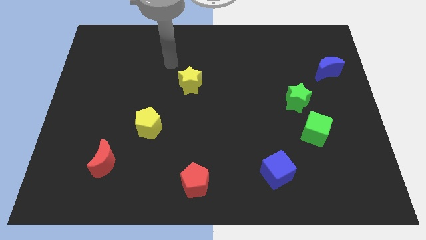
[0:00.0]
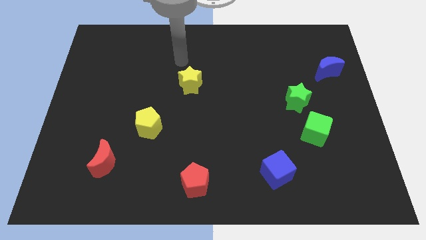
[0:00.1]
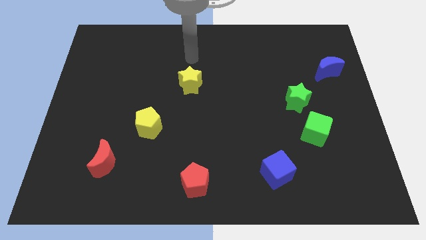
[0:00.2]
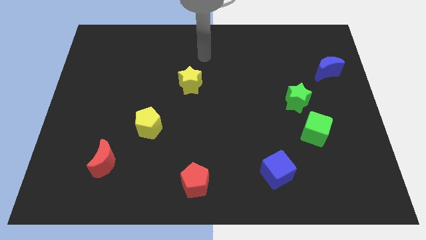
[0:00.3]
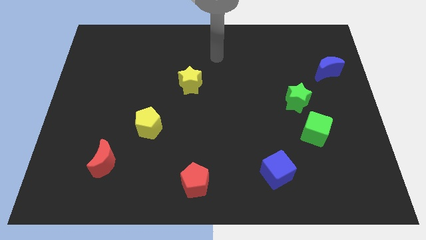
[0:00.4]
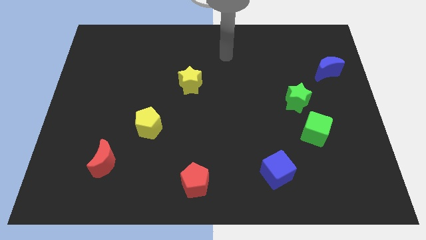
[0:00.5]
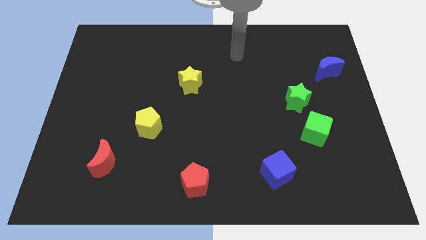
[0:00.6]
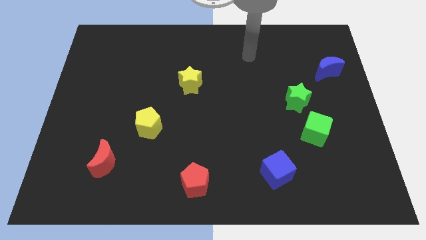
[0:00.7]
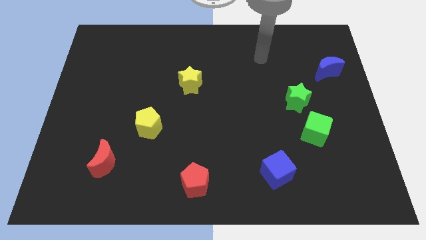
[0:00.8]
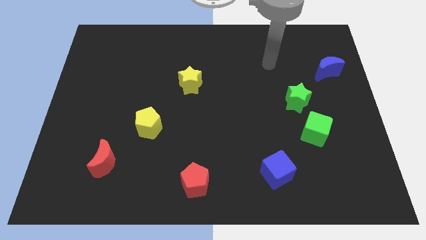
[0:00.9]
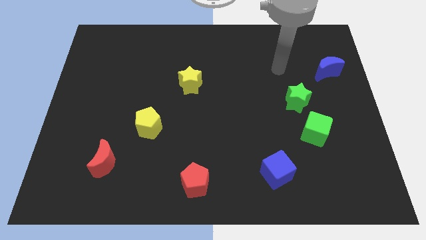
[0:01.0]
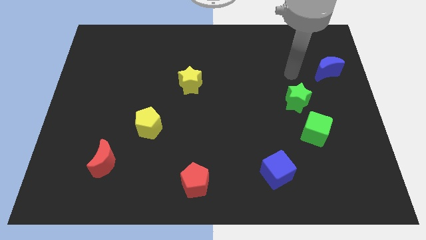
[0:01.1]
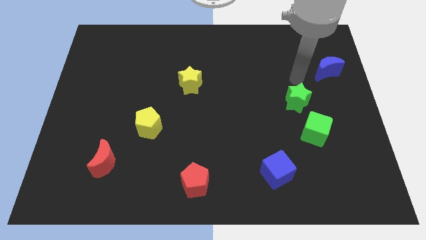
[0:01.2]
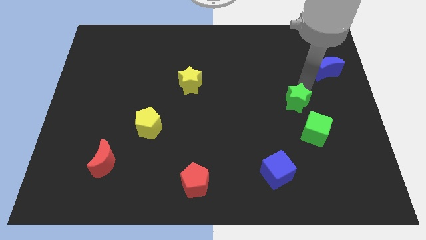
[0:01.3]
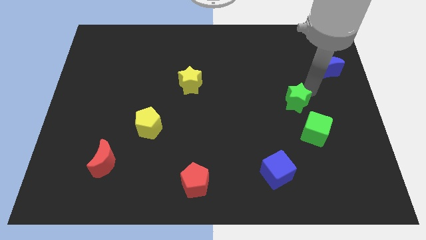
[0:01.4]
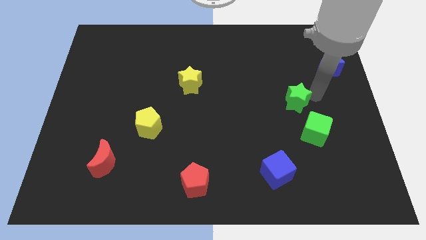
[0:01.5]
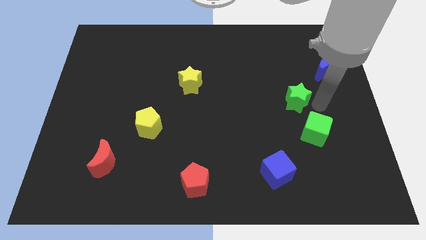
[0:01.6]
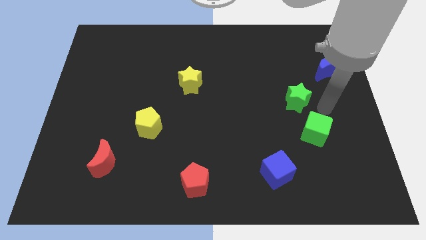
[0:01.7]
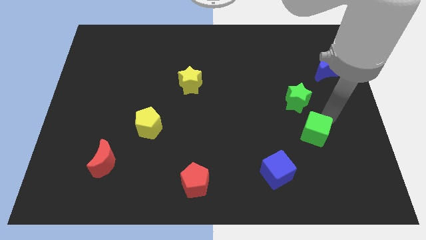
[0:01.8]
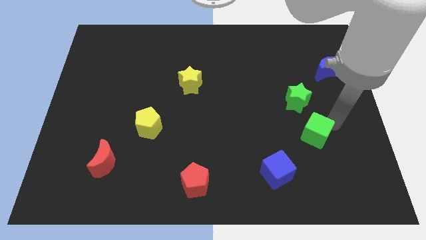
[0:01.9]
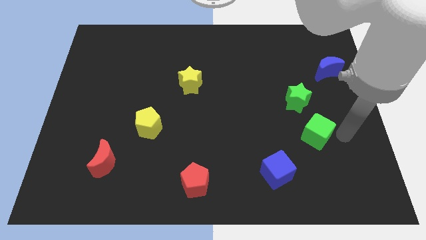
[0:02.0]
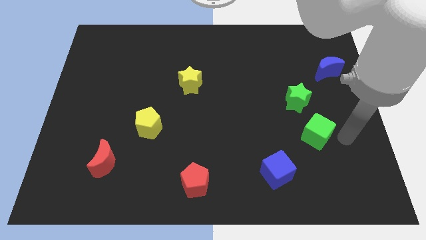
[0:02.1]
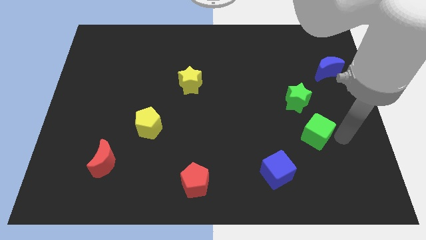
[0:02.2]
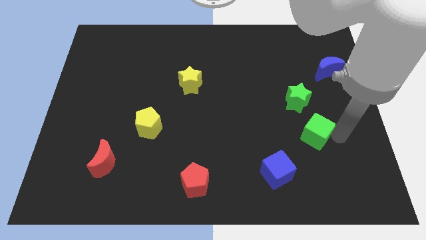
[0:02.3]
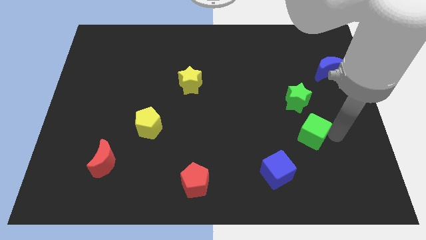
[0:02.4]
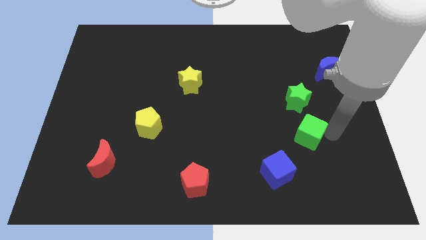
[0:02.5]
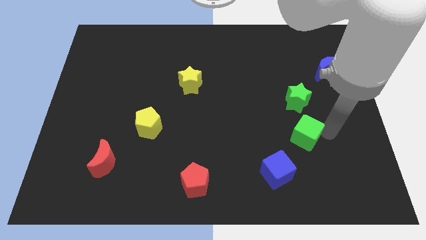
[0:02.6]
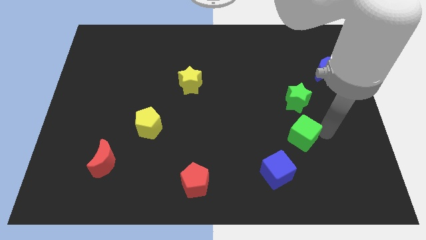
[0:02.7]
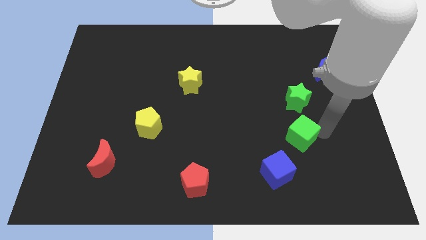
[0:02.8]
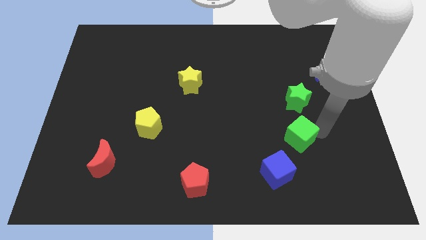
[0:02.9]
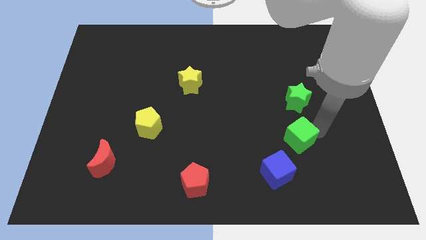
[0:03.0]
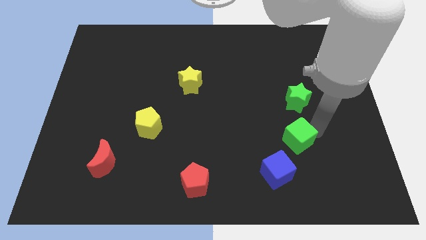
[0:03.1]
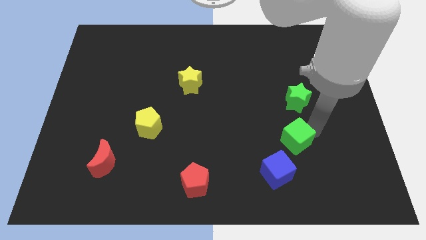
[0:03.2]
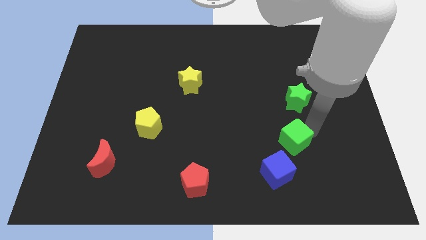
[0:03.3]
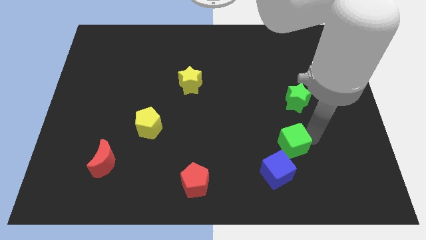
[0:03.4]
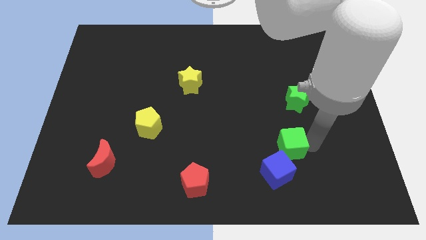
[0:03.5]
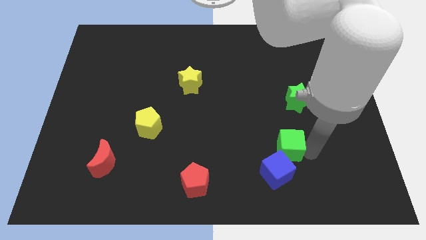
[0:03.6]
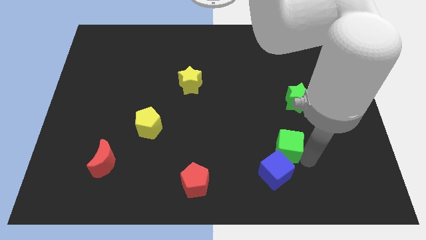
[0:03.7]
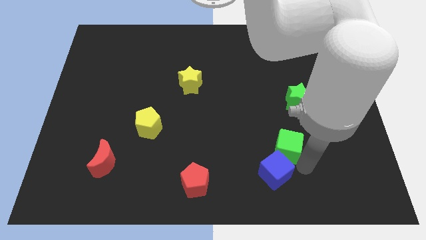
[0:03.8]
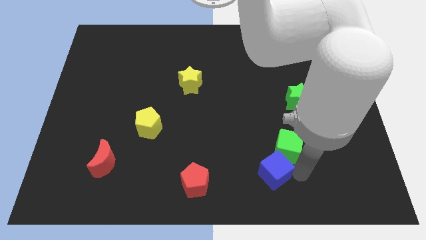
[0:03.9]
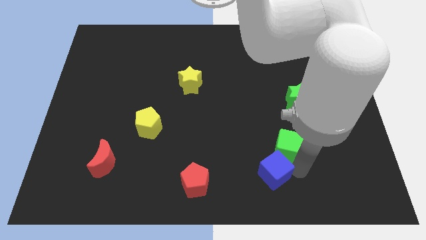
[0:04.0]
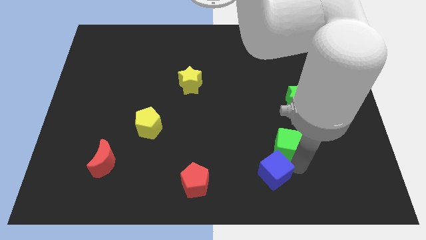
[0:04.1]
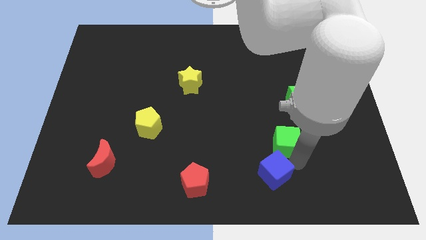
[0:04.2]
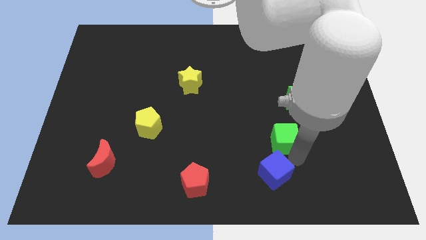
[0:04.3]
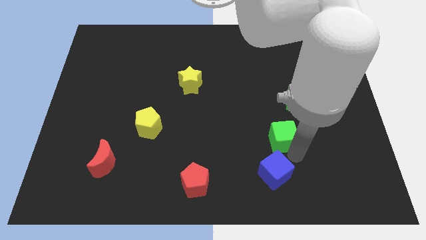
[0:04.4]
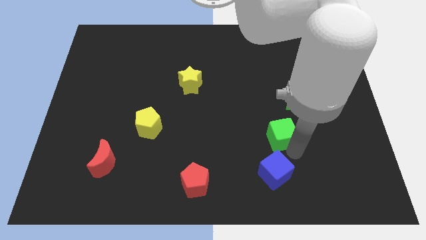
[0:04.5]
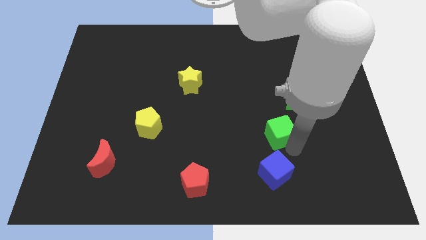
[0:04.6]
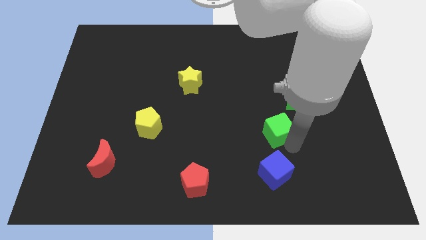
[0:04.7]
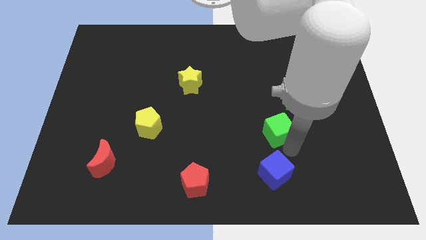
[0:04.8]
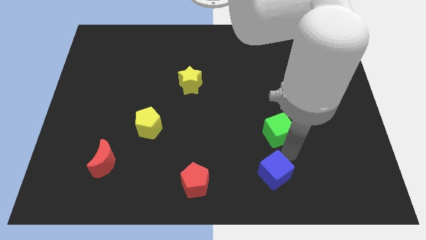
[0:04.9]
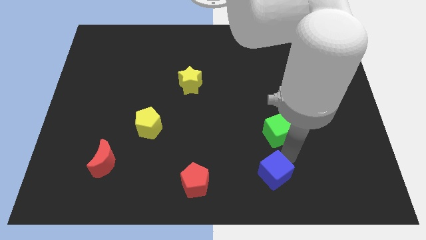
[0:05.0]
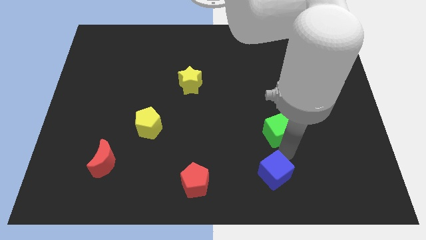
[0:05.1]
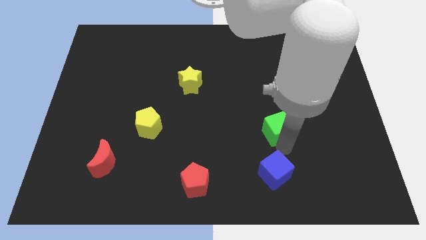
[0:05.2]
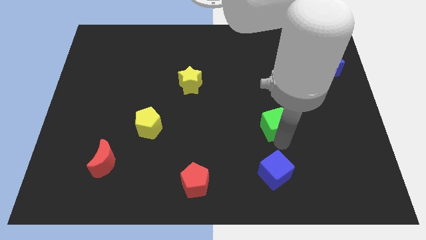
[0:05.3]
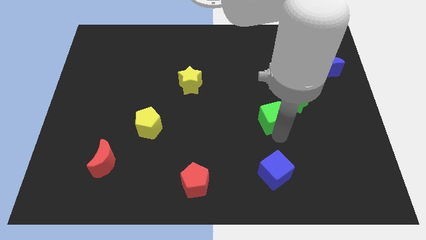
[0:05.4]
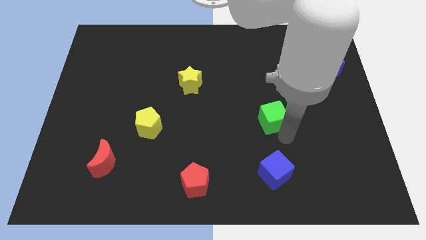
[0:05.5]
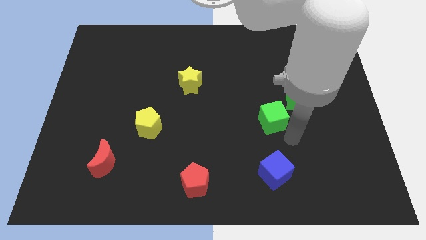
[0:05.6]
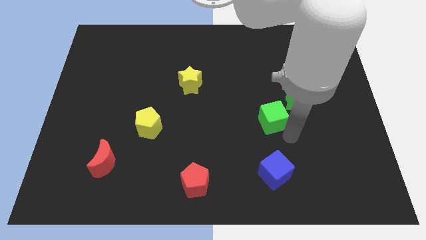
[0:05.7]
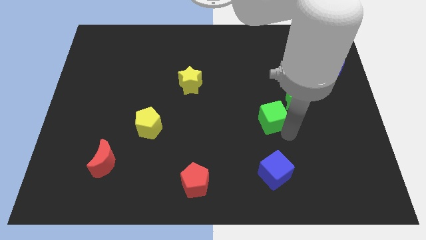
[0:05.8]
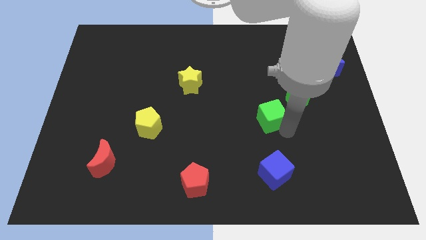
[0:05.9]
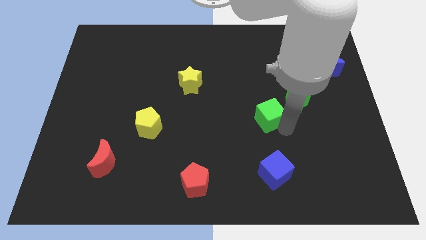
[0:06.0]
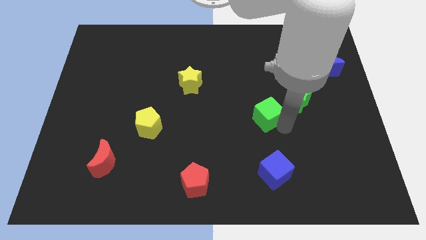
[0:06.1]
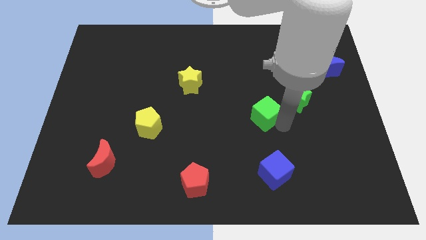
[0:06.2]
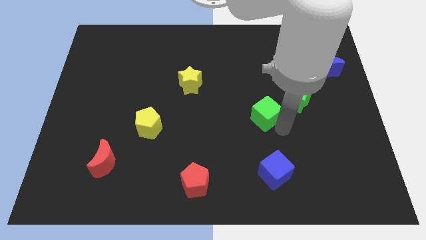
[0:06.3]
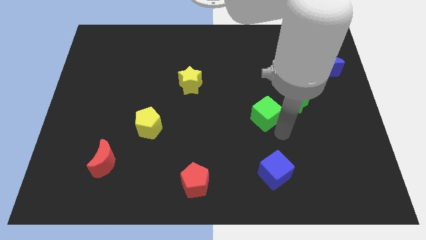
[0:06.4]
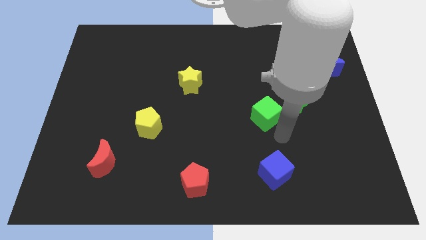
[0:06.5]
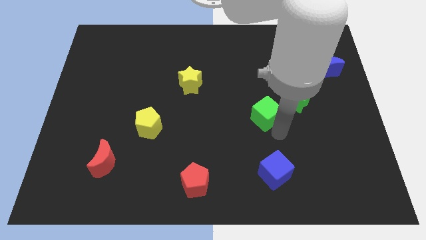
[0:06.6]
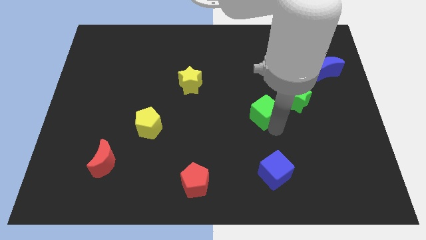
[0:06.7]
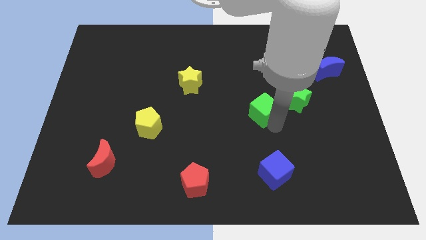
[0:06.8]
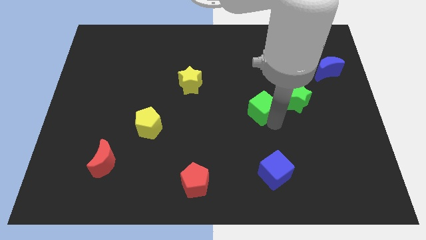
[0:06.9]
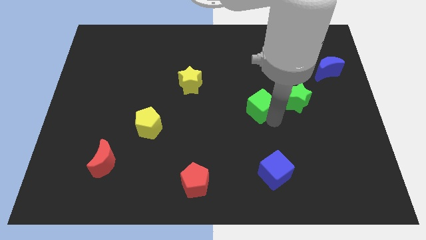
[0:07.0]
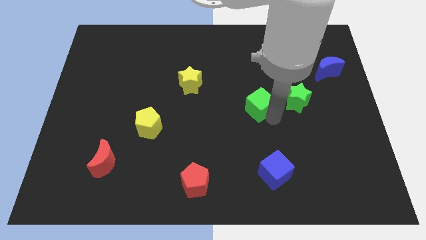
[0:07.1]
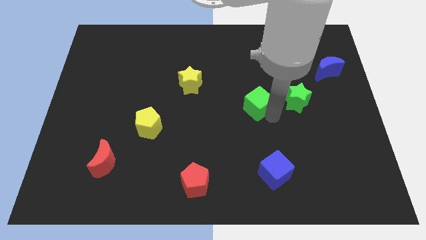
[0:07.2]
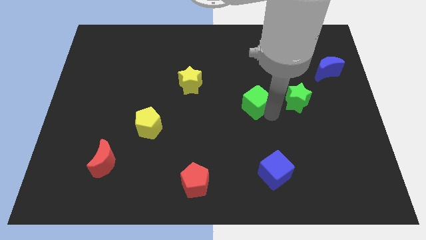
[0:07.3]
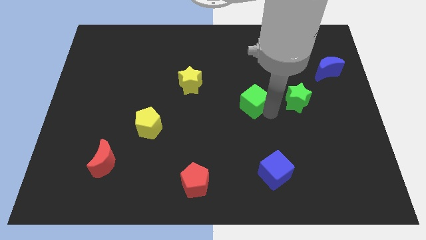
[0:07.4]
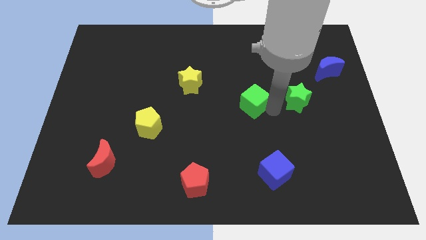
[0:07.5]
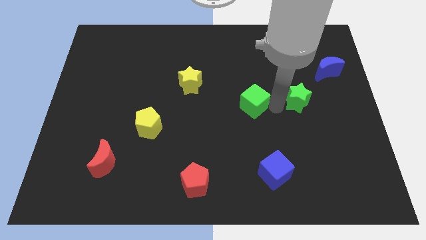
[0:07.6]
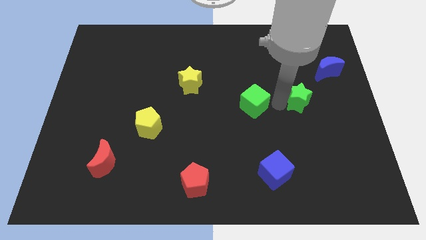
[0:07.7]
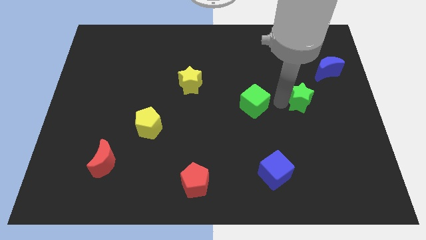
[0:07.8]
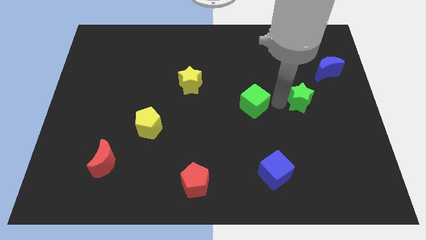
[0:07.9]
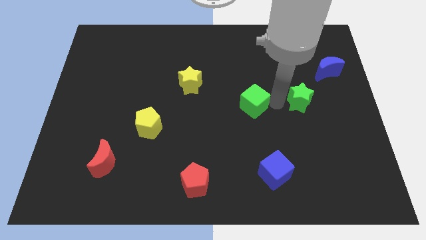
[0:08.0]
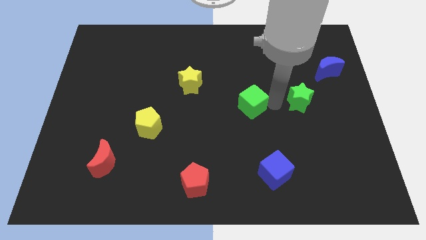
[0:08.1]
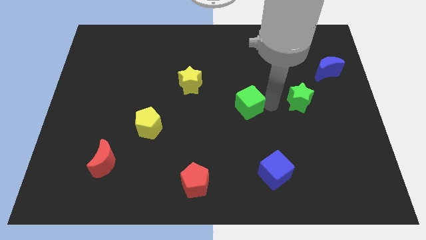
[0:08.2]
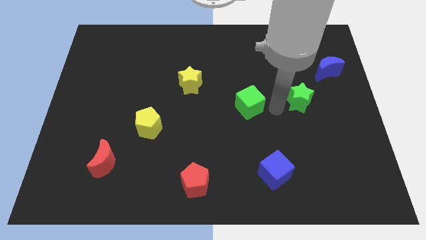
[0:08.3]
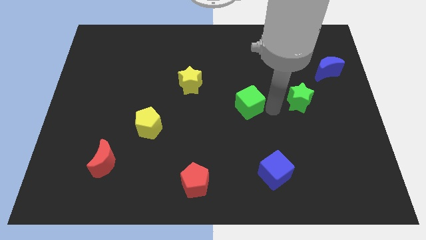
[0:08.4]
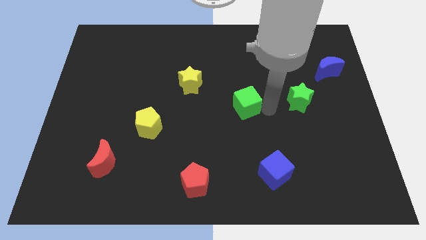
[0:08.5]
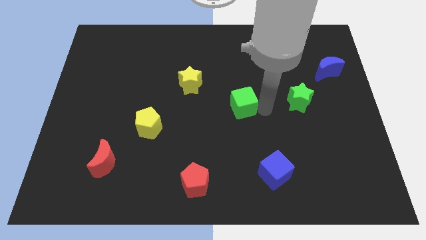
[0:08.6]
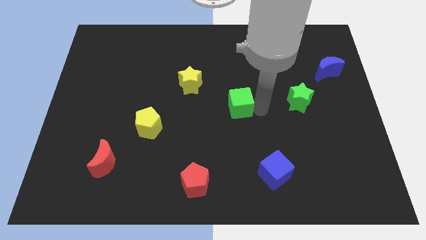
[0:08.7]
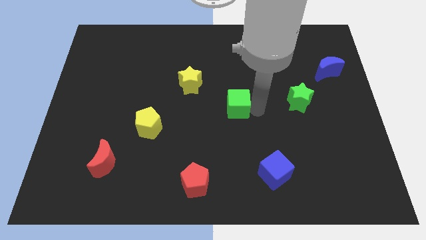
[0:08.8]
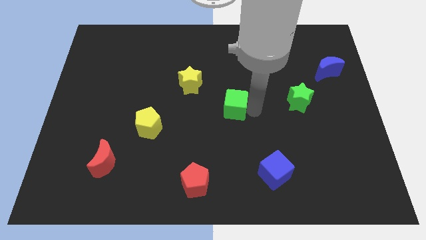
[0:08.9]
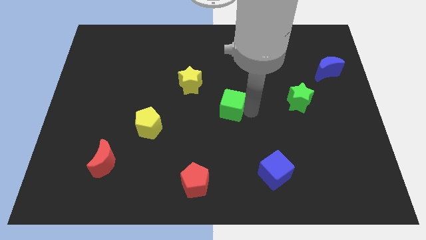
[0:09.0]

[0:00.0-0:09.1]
move the green cube to the bottom right of the yellow star
